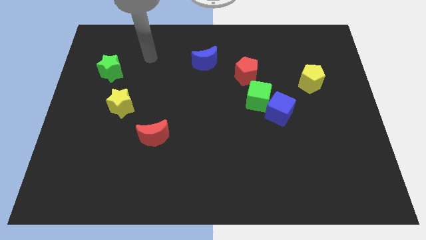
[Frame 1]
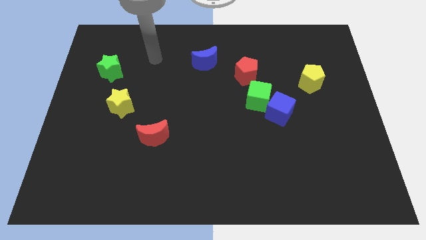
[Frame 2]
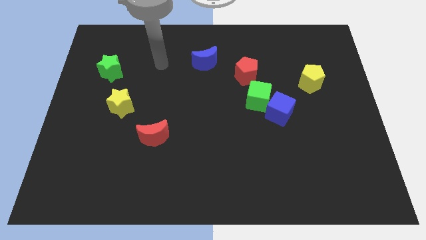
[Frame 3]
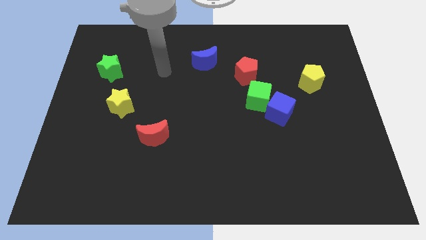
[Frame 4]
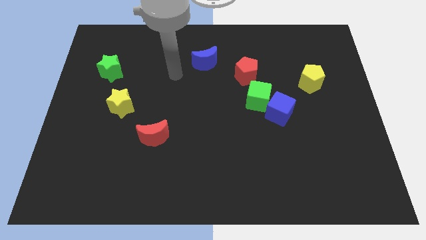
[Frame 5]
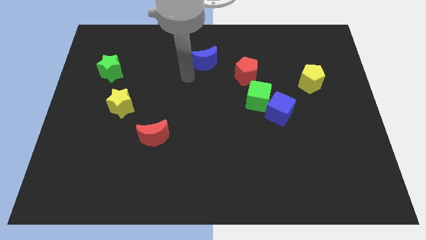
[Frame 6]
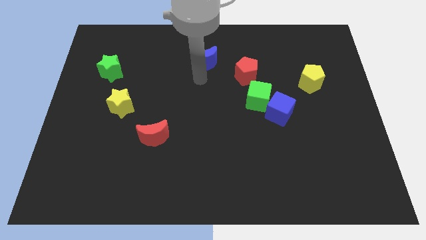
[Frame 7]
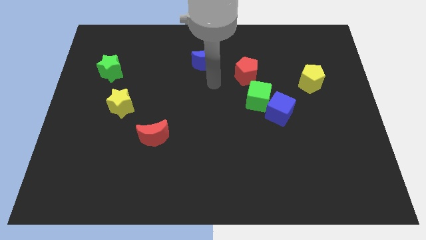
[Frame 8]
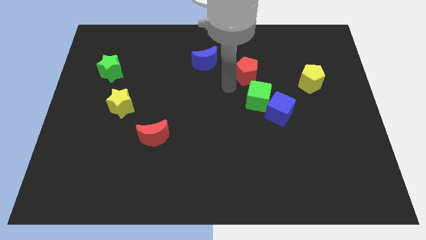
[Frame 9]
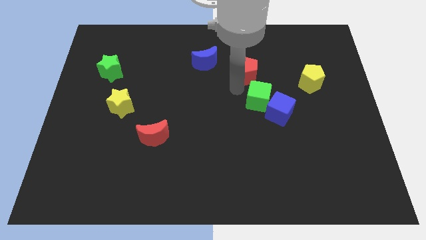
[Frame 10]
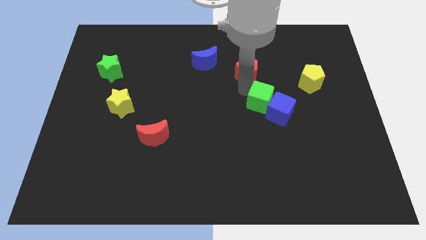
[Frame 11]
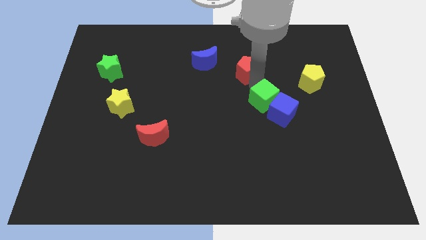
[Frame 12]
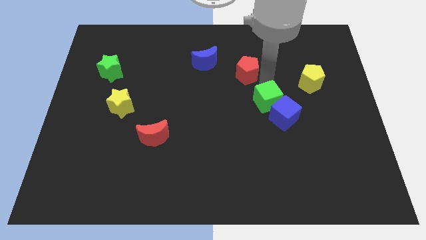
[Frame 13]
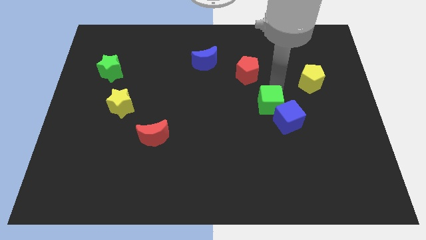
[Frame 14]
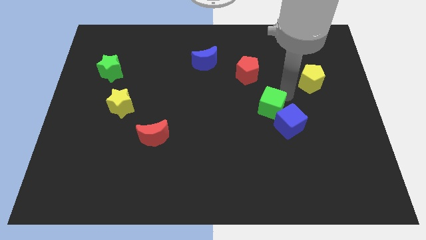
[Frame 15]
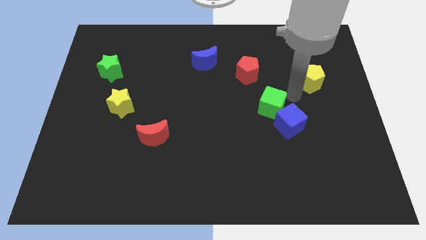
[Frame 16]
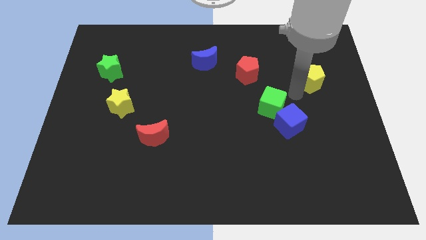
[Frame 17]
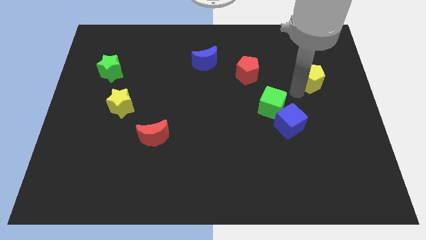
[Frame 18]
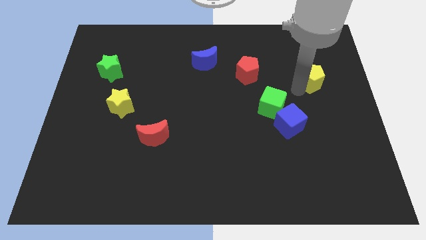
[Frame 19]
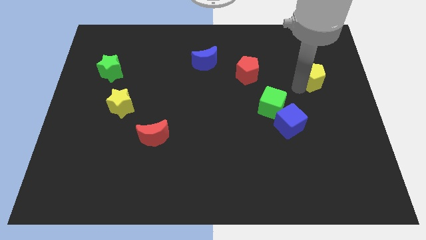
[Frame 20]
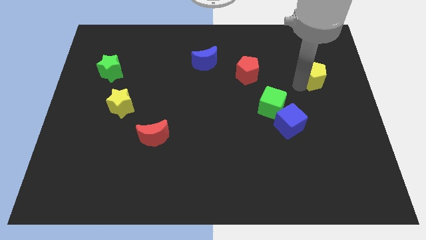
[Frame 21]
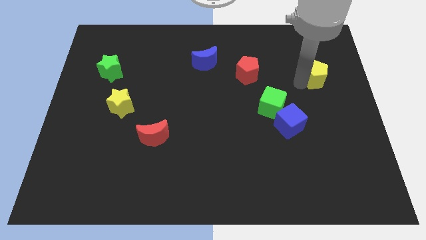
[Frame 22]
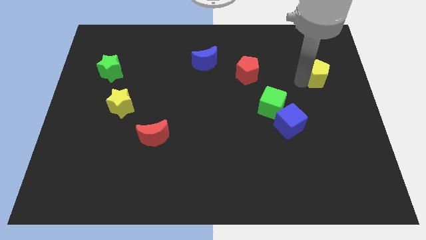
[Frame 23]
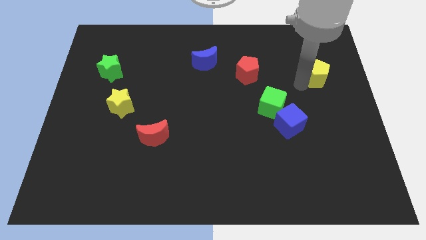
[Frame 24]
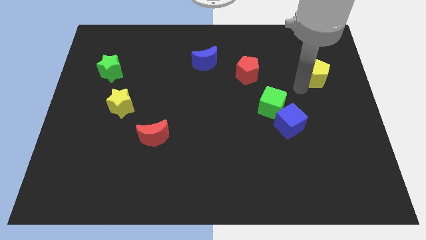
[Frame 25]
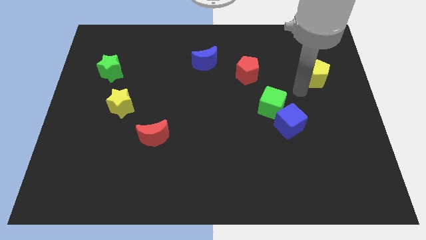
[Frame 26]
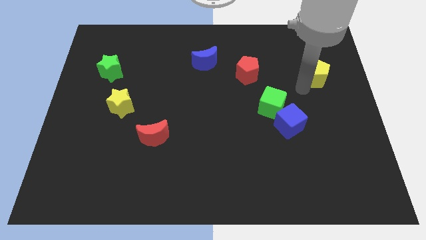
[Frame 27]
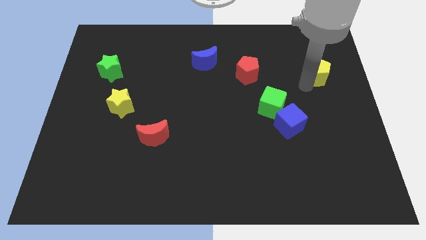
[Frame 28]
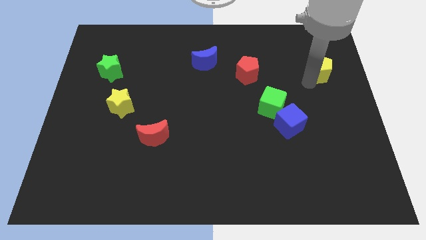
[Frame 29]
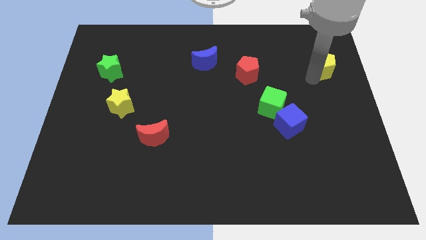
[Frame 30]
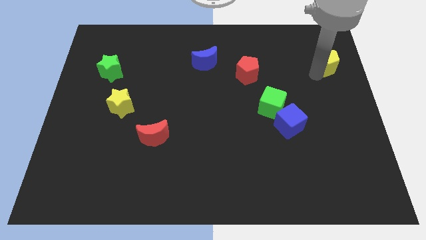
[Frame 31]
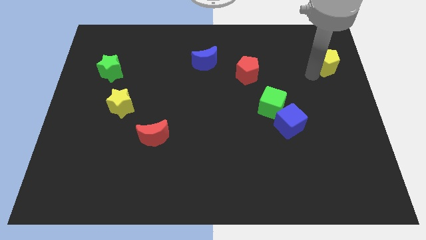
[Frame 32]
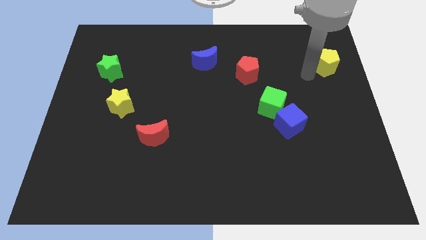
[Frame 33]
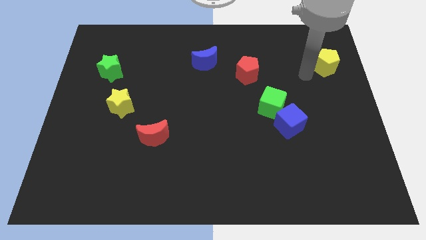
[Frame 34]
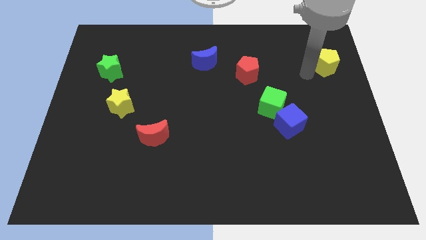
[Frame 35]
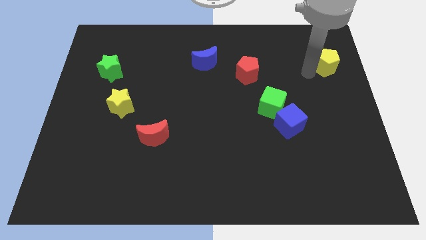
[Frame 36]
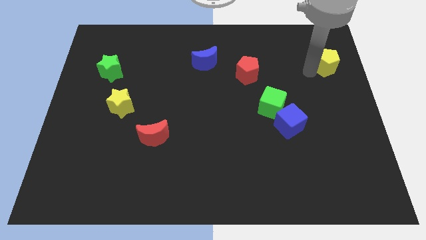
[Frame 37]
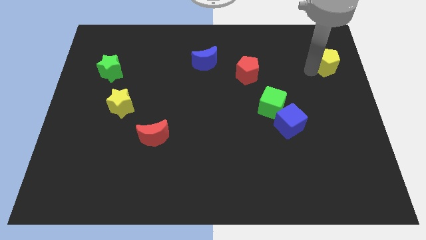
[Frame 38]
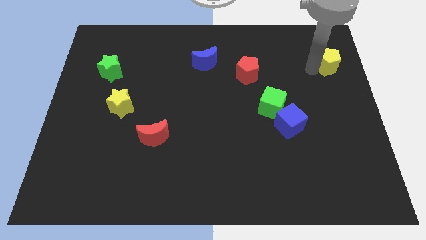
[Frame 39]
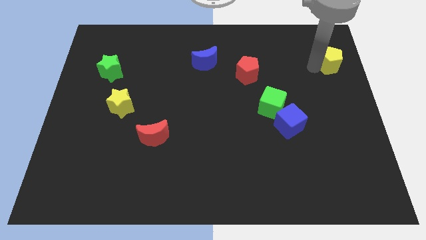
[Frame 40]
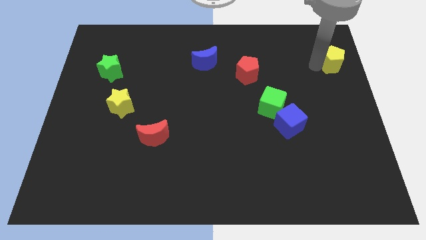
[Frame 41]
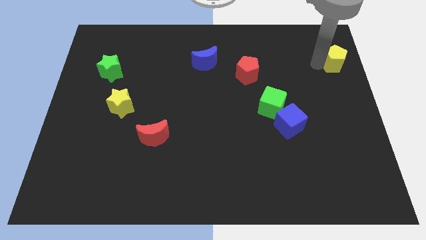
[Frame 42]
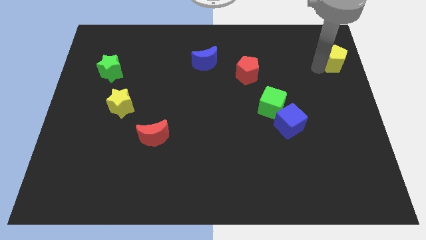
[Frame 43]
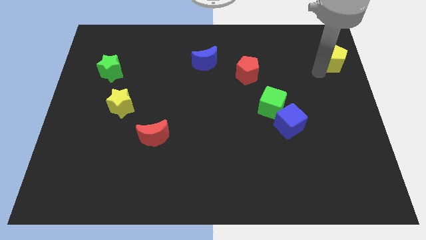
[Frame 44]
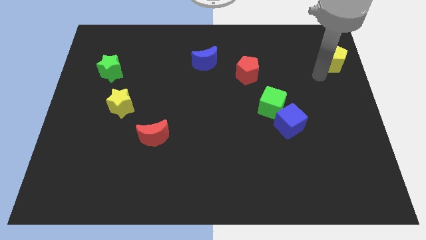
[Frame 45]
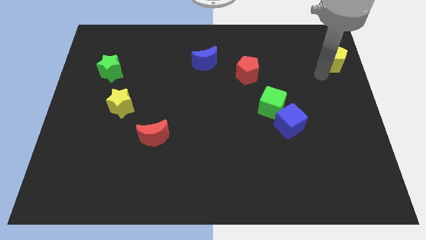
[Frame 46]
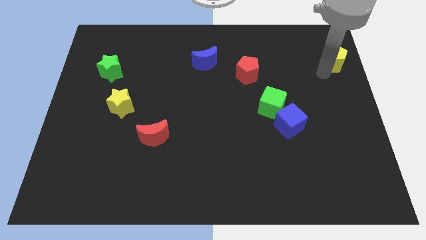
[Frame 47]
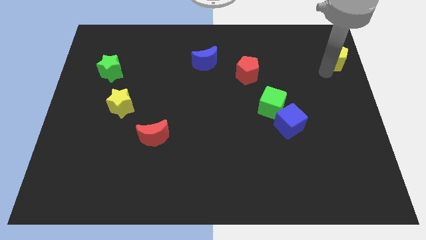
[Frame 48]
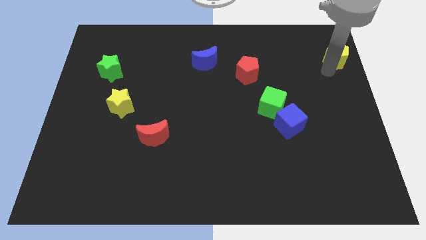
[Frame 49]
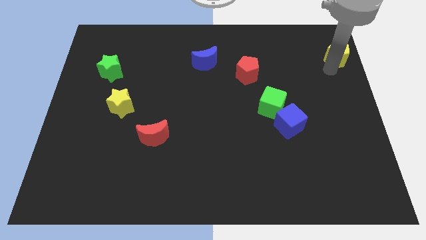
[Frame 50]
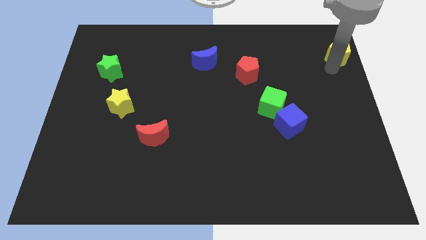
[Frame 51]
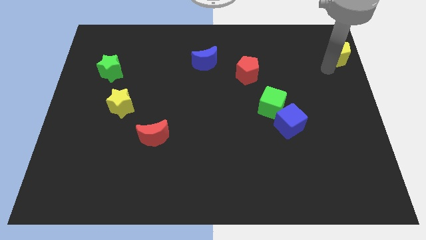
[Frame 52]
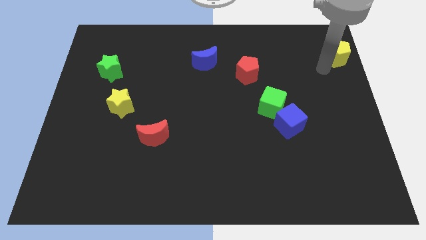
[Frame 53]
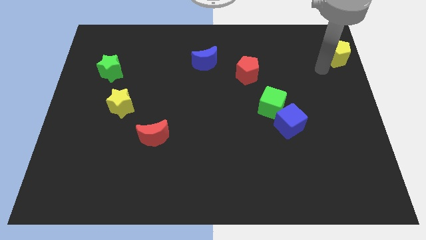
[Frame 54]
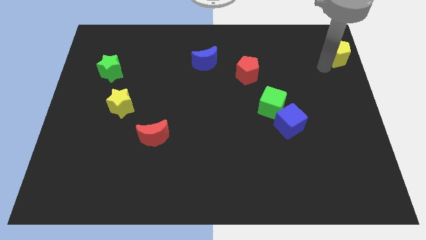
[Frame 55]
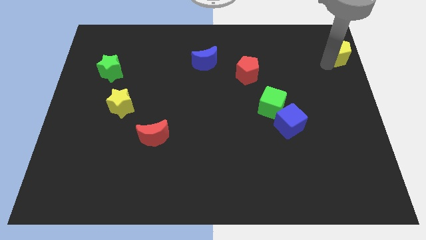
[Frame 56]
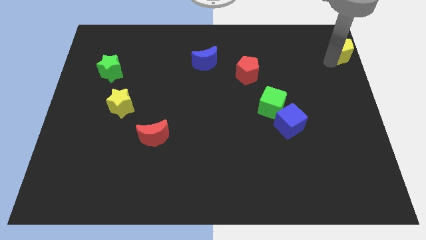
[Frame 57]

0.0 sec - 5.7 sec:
move the yellow pentagon to the top right corner
